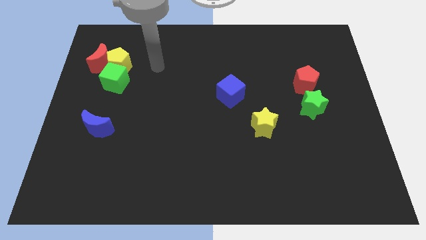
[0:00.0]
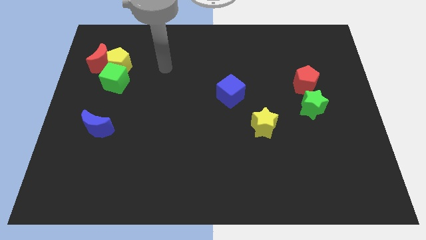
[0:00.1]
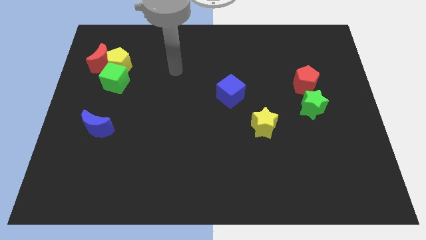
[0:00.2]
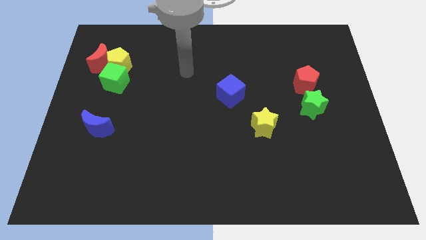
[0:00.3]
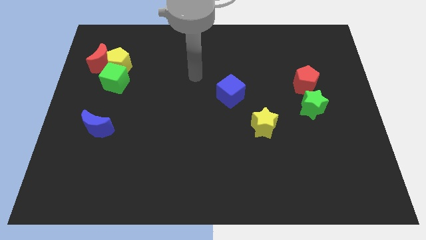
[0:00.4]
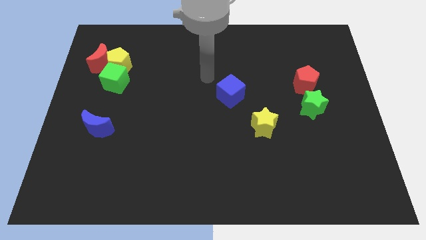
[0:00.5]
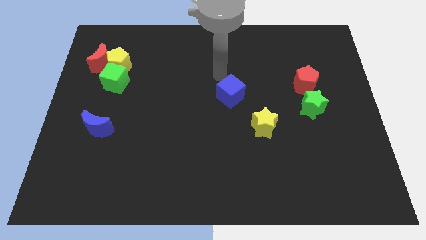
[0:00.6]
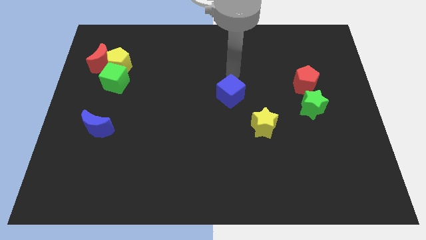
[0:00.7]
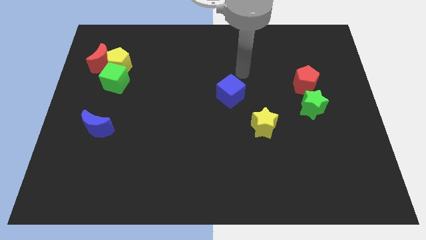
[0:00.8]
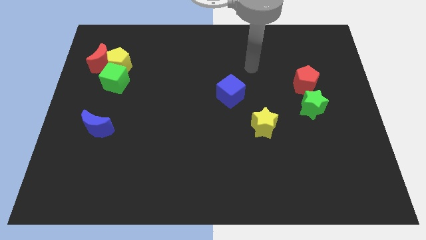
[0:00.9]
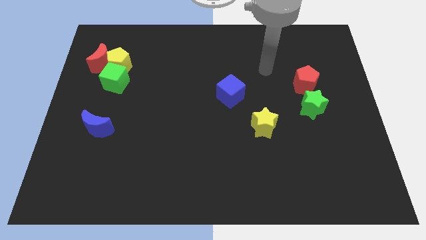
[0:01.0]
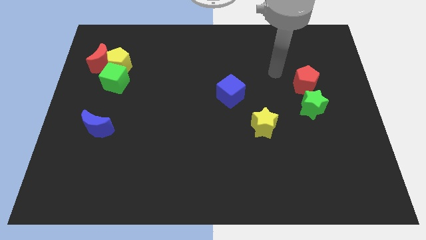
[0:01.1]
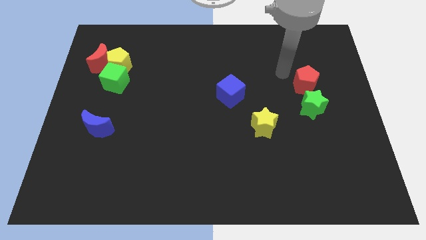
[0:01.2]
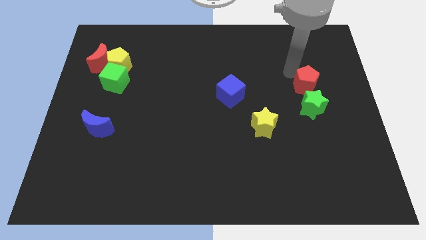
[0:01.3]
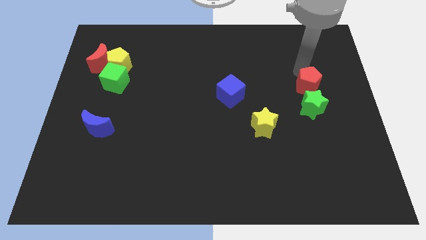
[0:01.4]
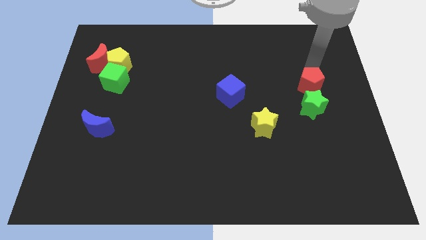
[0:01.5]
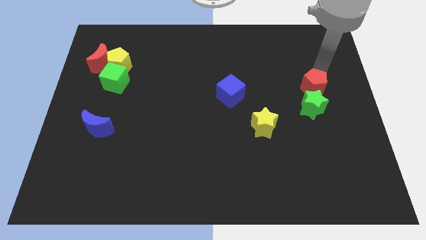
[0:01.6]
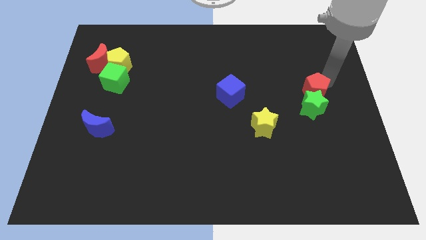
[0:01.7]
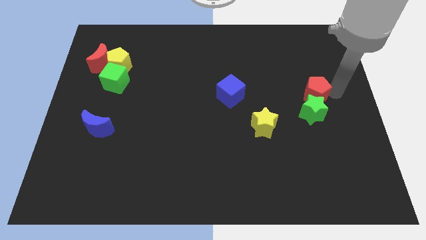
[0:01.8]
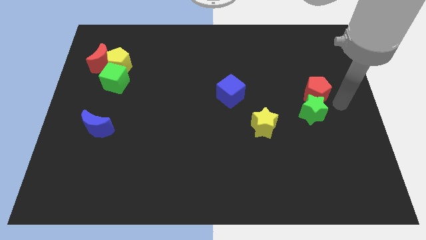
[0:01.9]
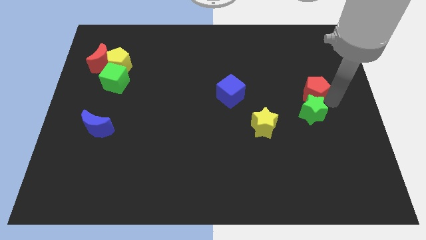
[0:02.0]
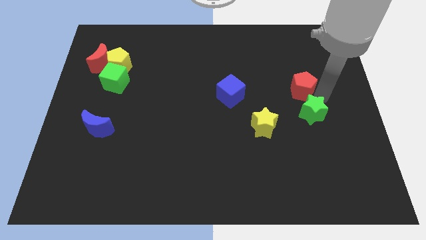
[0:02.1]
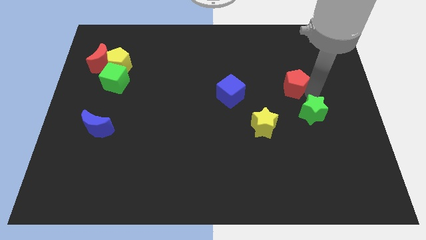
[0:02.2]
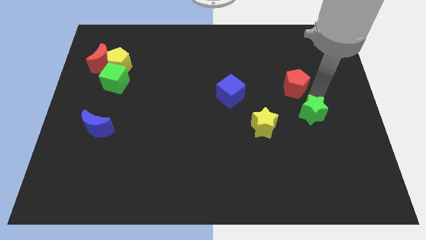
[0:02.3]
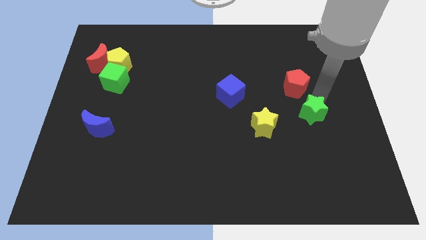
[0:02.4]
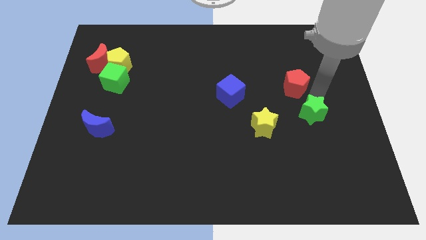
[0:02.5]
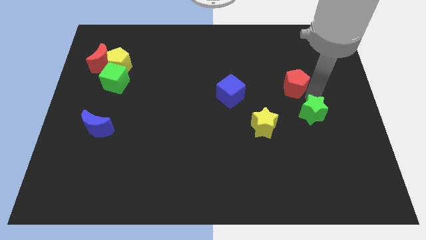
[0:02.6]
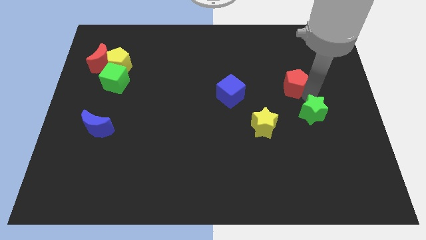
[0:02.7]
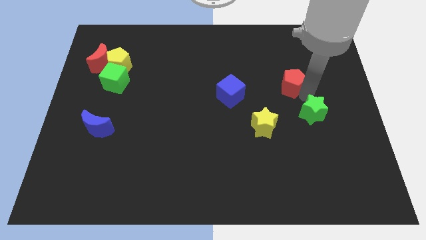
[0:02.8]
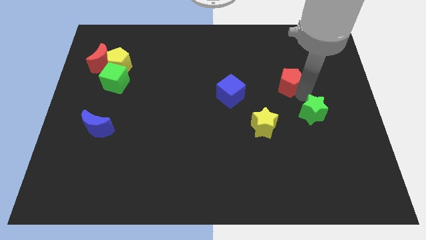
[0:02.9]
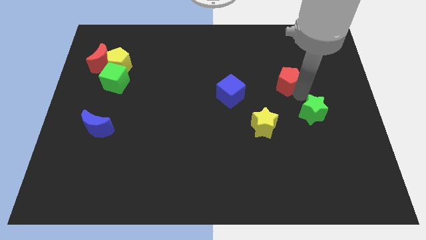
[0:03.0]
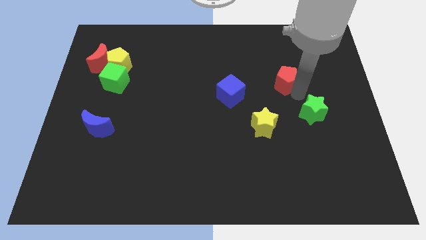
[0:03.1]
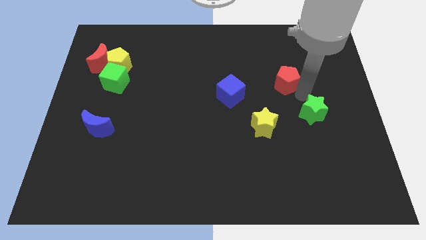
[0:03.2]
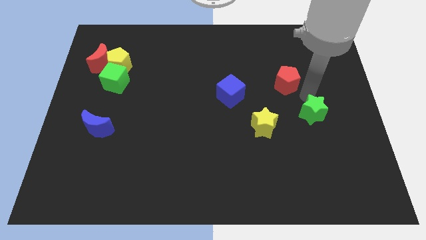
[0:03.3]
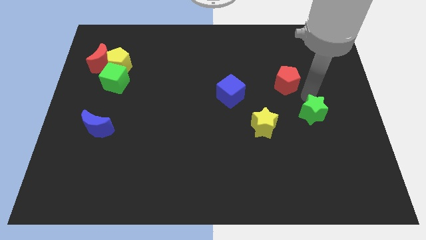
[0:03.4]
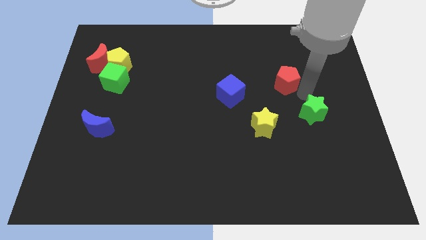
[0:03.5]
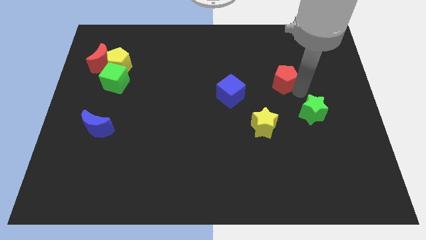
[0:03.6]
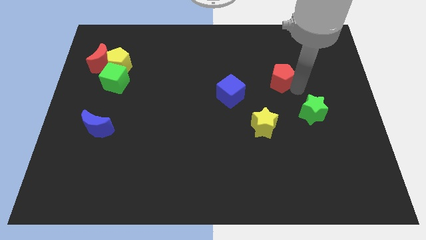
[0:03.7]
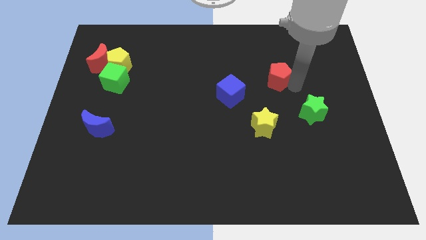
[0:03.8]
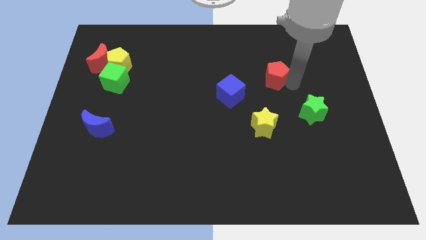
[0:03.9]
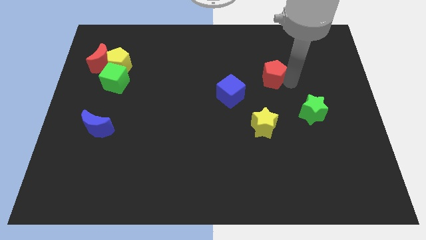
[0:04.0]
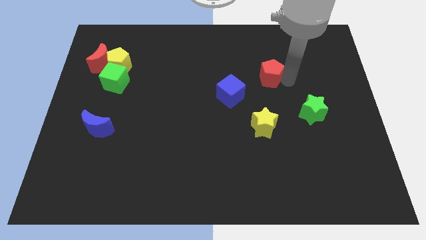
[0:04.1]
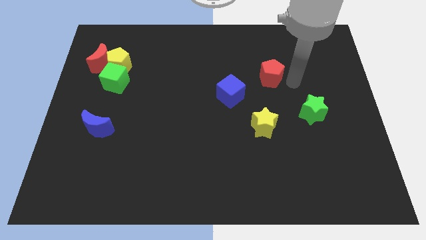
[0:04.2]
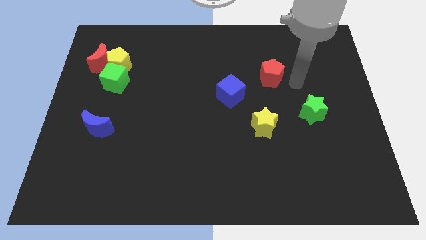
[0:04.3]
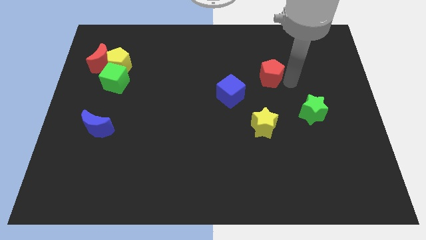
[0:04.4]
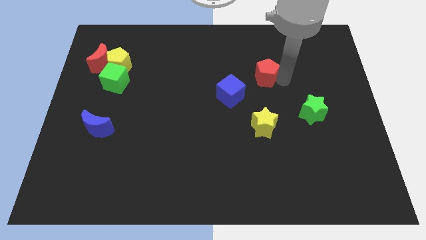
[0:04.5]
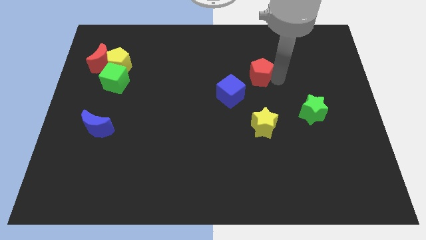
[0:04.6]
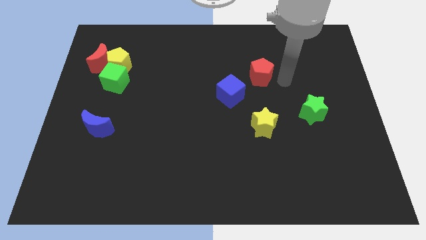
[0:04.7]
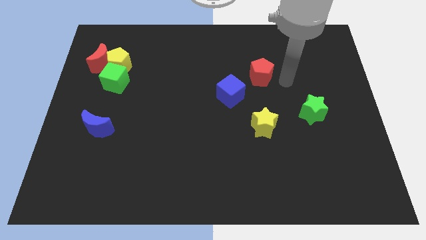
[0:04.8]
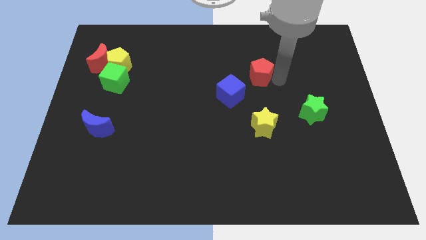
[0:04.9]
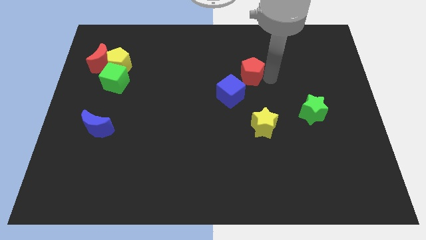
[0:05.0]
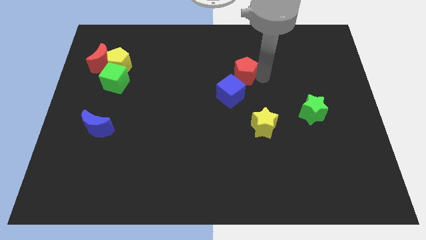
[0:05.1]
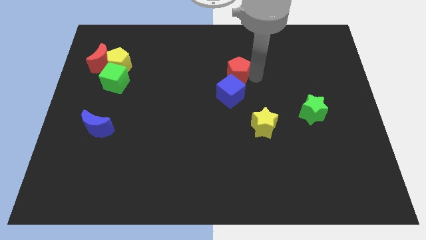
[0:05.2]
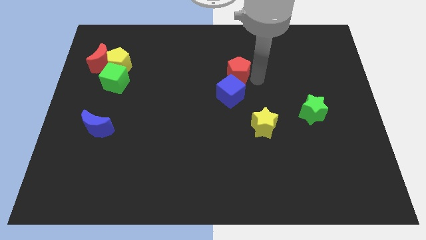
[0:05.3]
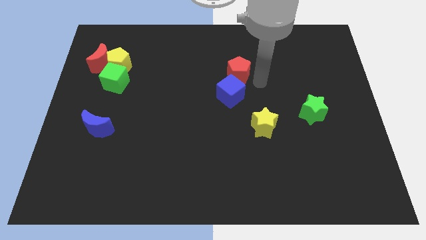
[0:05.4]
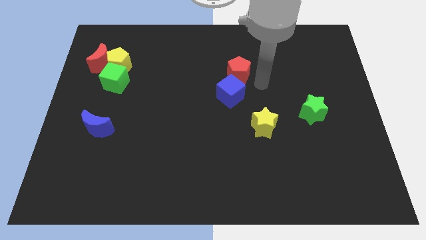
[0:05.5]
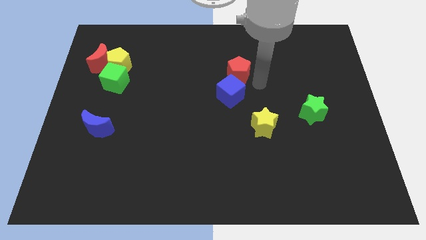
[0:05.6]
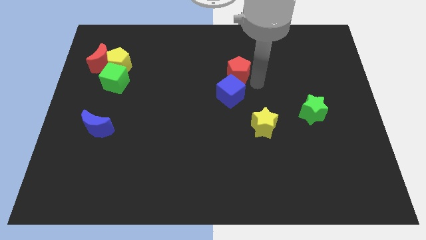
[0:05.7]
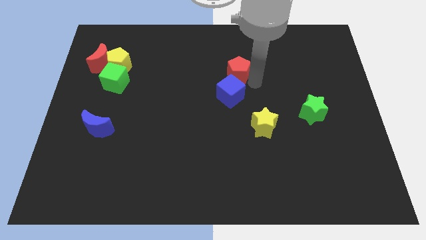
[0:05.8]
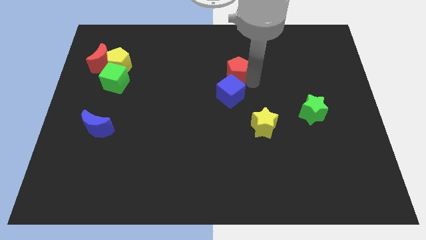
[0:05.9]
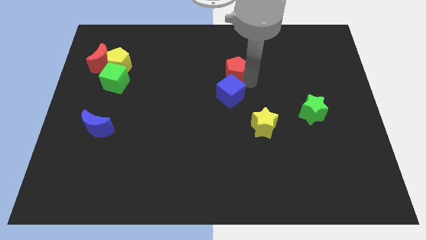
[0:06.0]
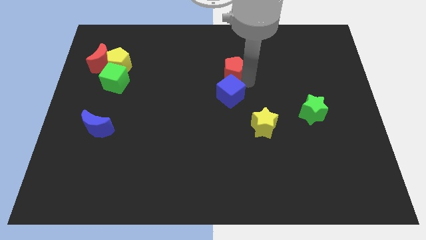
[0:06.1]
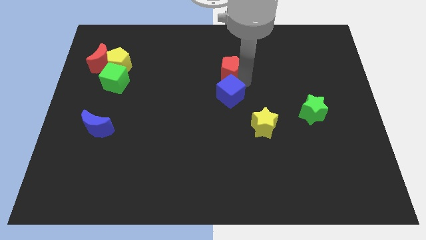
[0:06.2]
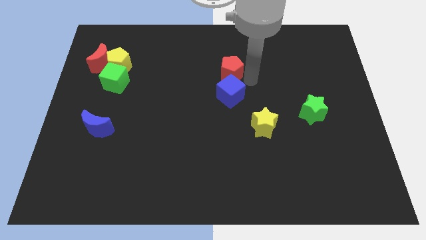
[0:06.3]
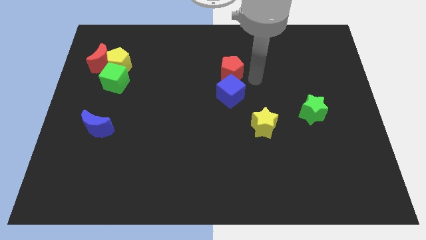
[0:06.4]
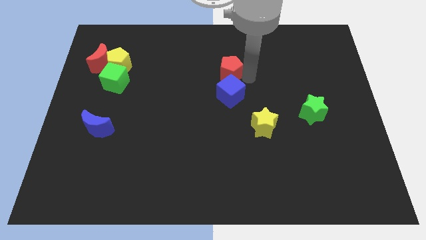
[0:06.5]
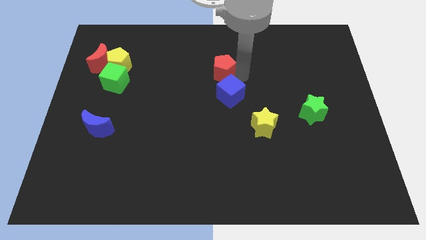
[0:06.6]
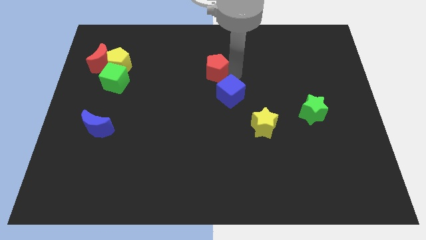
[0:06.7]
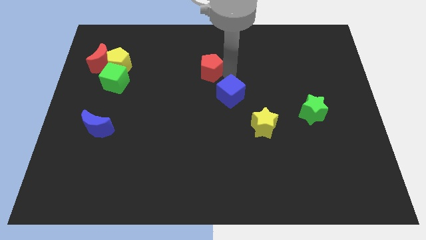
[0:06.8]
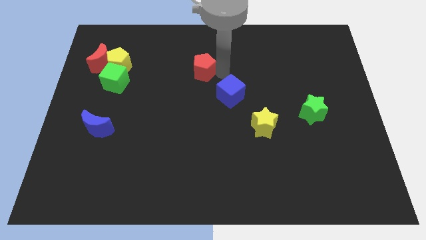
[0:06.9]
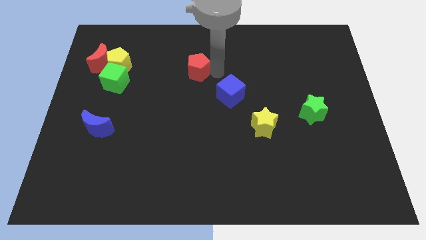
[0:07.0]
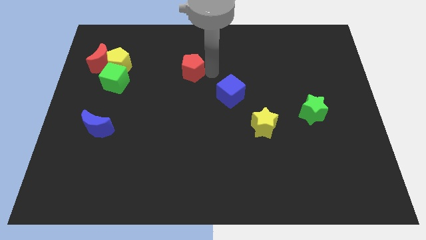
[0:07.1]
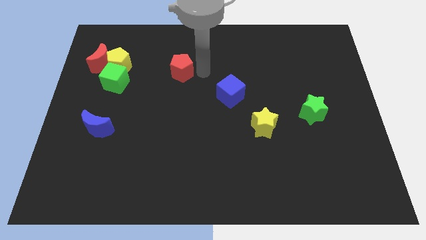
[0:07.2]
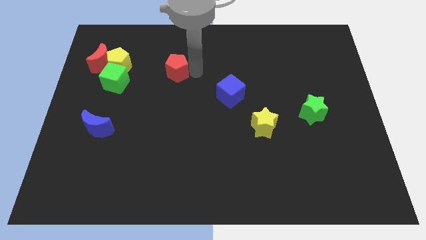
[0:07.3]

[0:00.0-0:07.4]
push the red pentagon right of the yellow pentagon

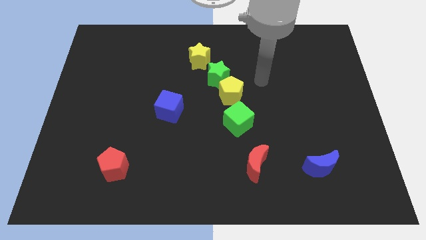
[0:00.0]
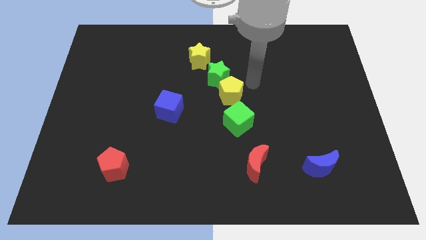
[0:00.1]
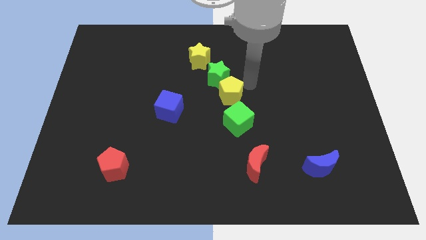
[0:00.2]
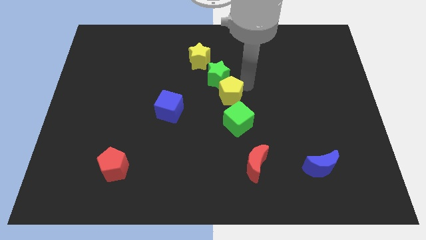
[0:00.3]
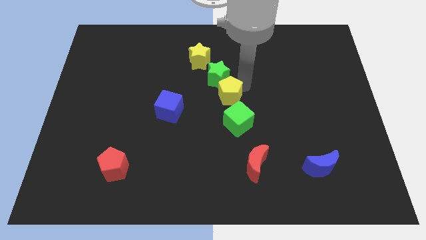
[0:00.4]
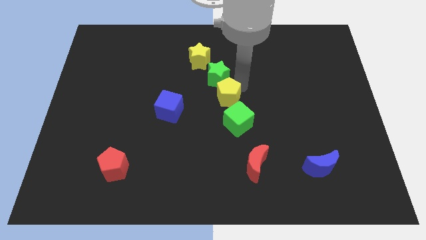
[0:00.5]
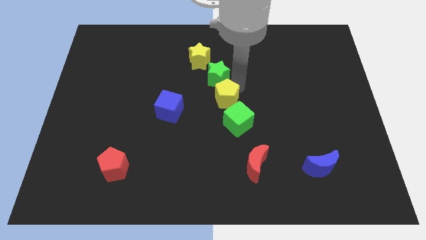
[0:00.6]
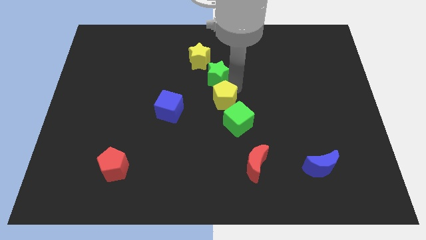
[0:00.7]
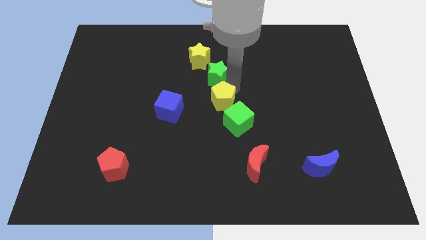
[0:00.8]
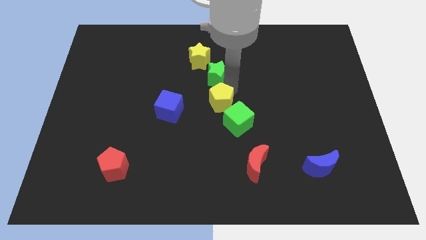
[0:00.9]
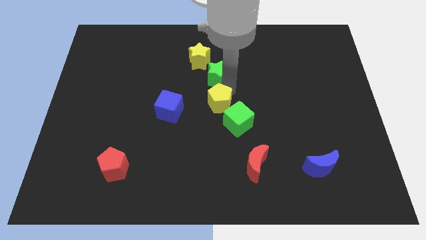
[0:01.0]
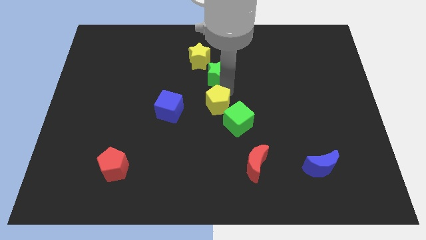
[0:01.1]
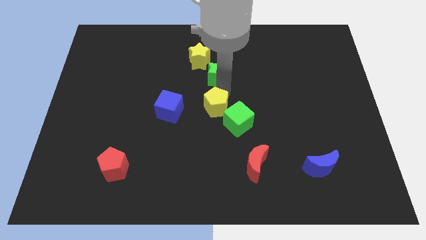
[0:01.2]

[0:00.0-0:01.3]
move the yellow pentagon to the left of the green cube
